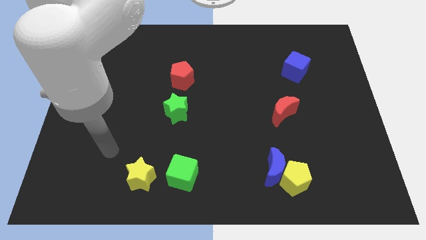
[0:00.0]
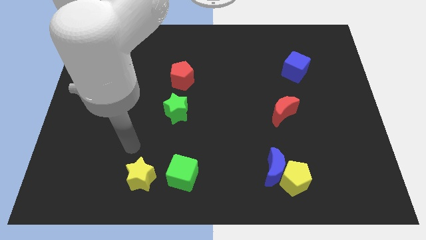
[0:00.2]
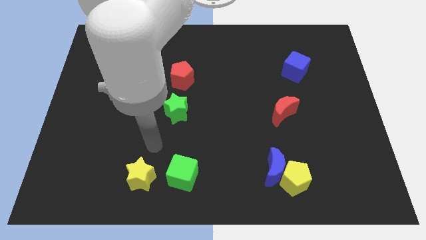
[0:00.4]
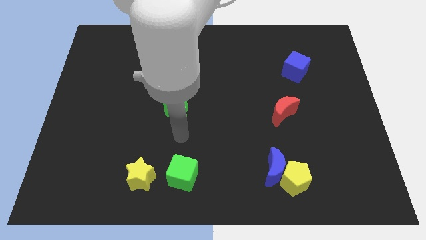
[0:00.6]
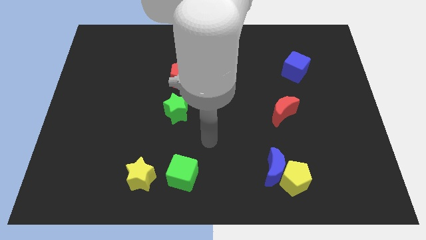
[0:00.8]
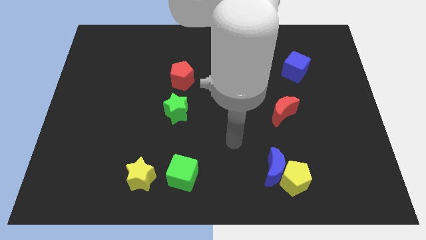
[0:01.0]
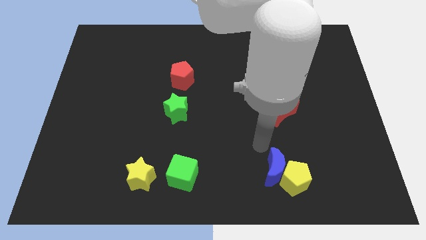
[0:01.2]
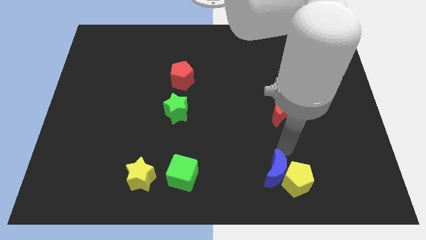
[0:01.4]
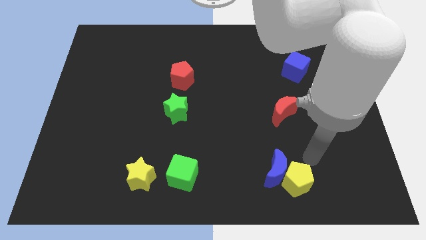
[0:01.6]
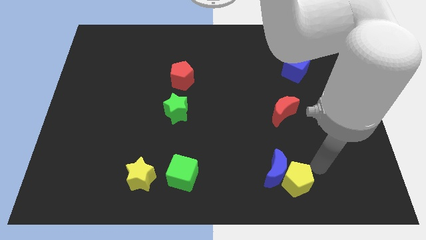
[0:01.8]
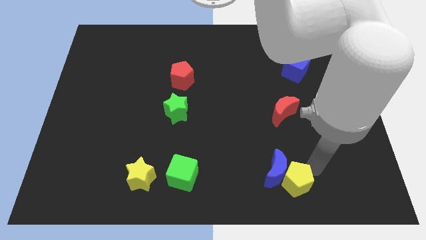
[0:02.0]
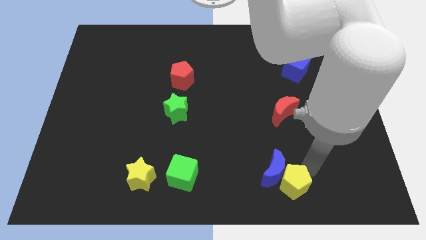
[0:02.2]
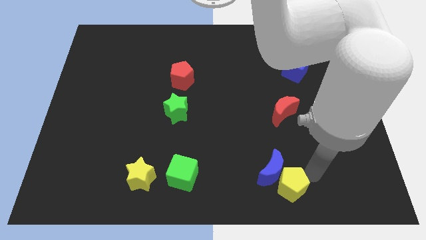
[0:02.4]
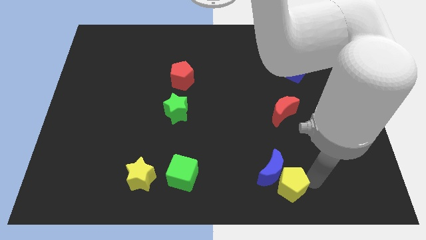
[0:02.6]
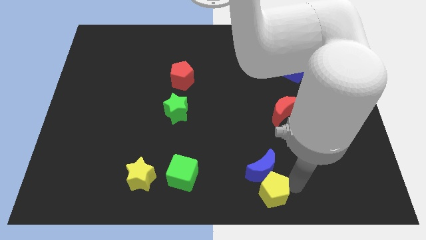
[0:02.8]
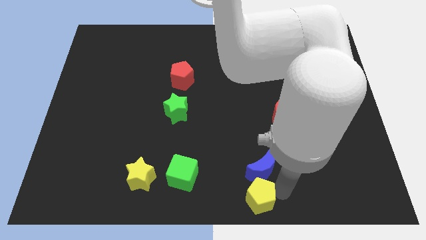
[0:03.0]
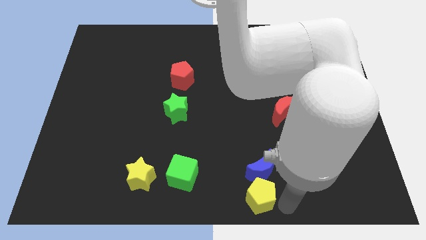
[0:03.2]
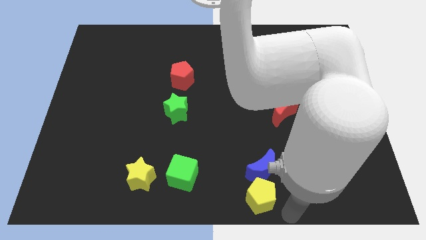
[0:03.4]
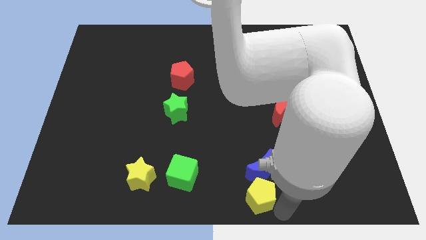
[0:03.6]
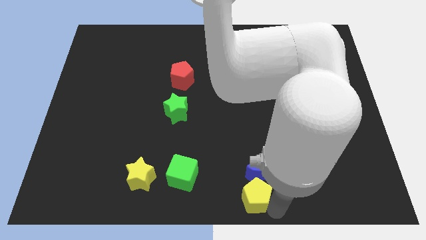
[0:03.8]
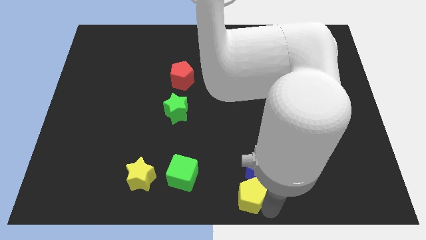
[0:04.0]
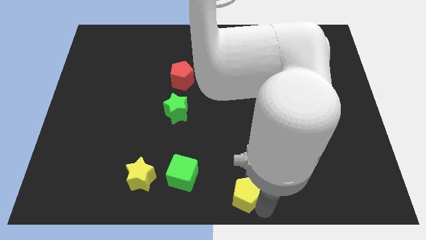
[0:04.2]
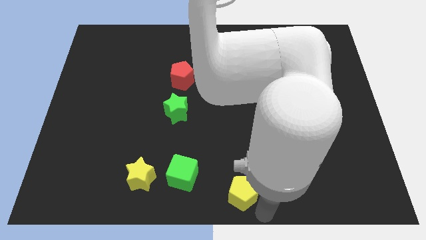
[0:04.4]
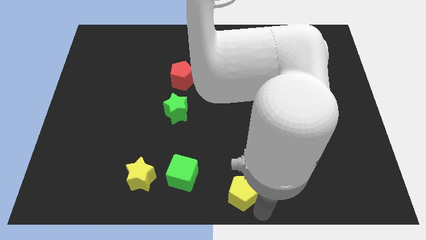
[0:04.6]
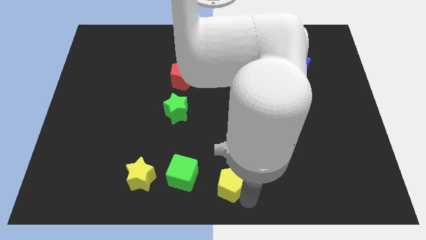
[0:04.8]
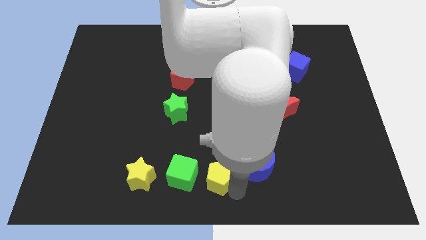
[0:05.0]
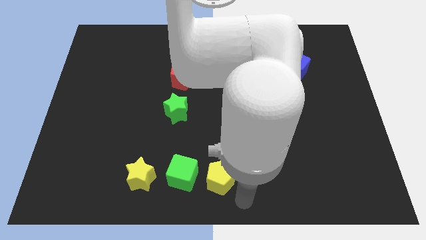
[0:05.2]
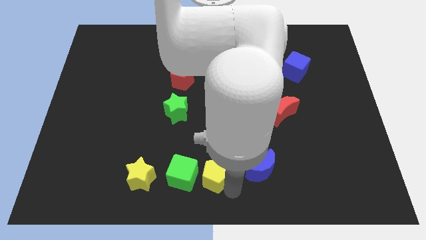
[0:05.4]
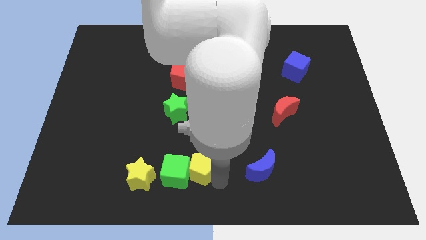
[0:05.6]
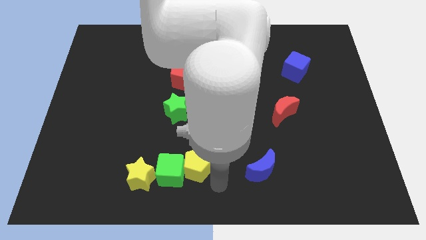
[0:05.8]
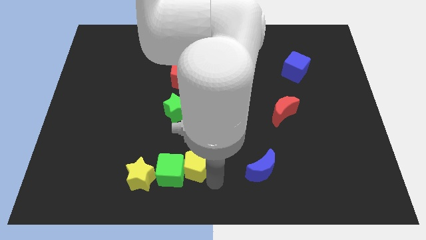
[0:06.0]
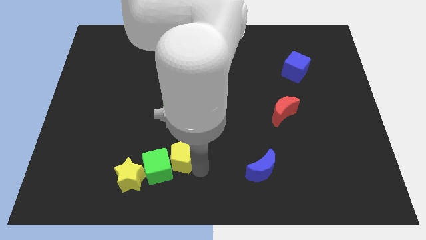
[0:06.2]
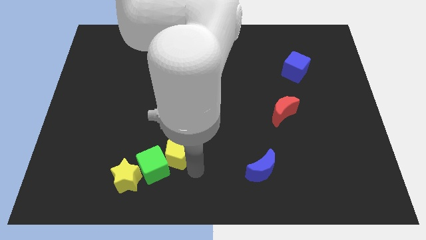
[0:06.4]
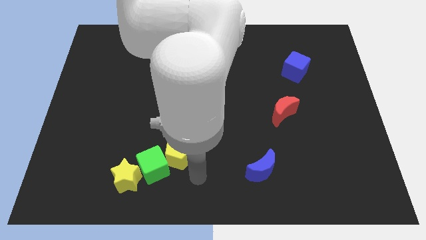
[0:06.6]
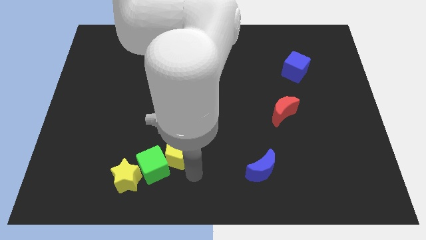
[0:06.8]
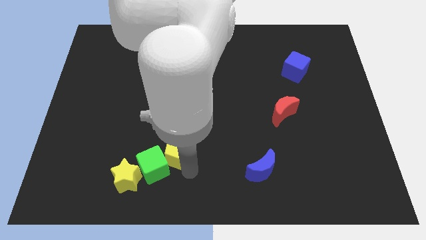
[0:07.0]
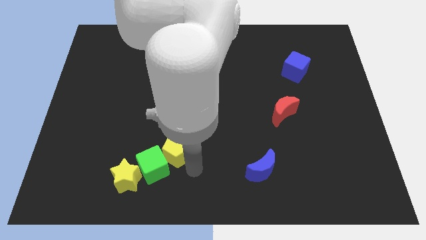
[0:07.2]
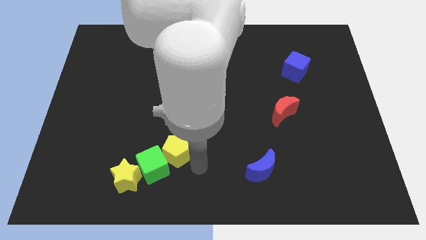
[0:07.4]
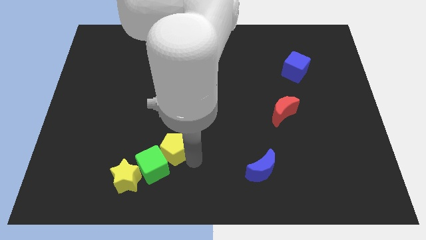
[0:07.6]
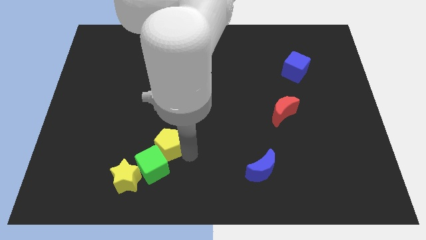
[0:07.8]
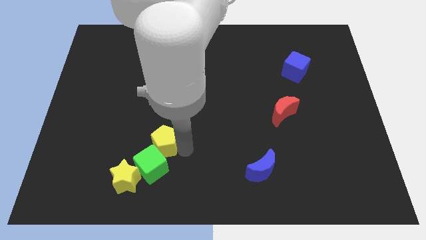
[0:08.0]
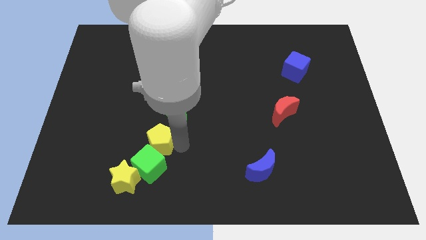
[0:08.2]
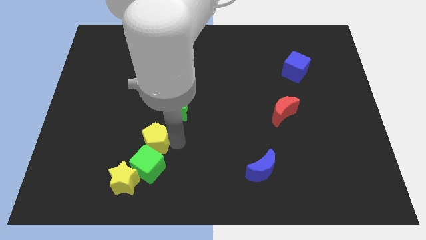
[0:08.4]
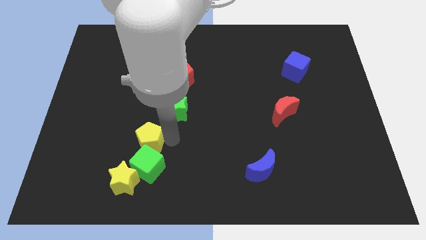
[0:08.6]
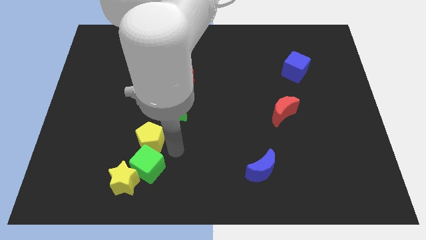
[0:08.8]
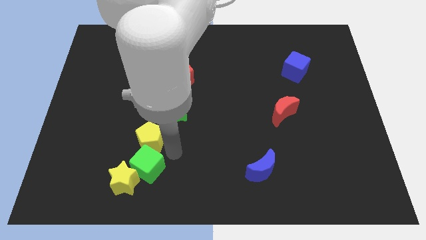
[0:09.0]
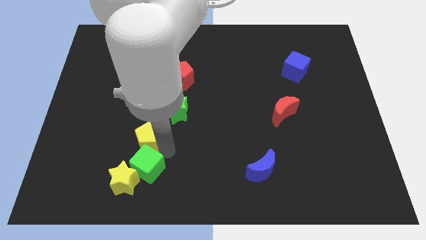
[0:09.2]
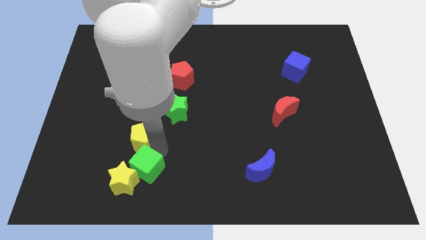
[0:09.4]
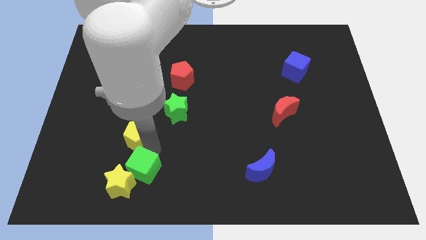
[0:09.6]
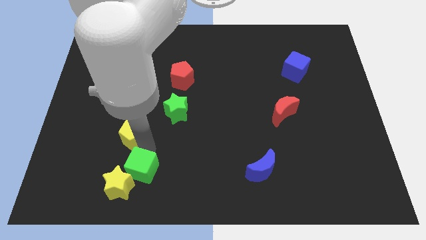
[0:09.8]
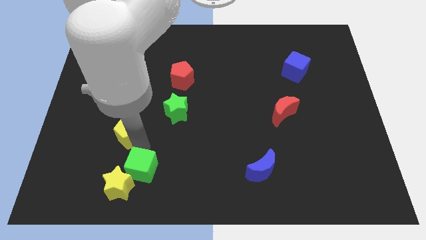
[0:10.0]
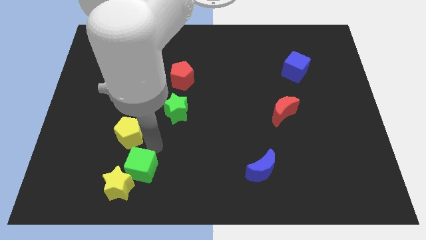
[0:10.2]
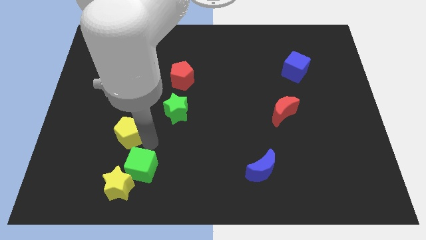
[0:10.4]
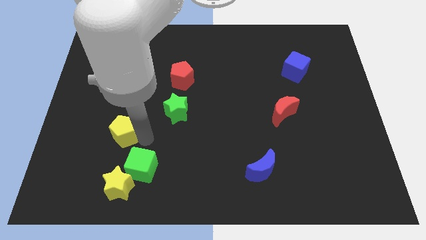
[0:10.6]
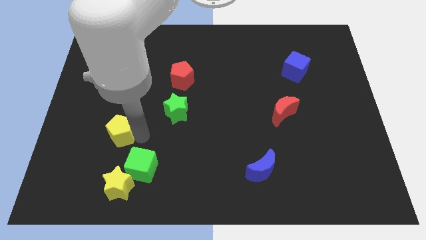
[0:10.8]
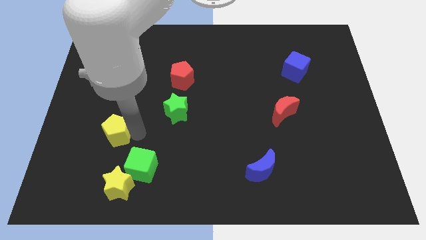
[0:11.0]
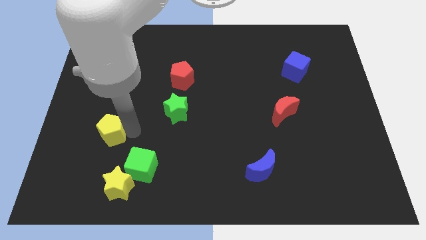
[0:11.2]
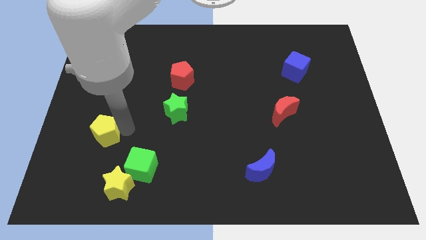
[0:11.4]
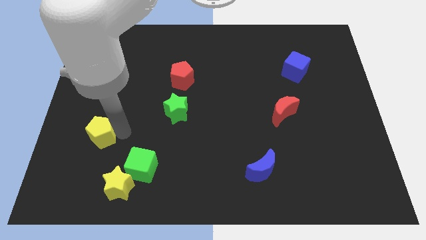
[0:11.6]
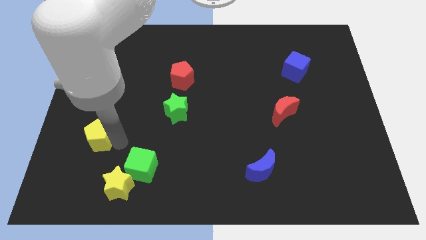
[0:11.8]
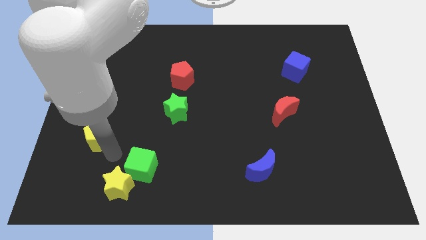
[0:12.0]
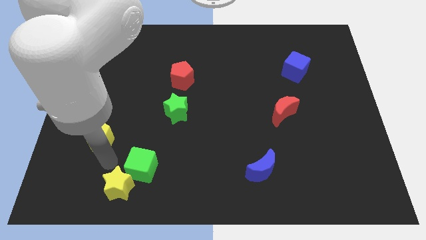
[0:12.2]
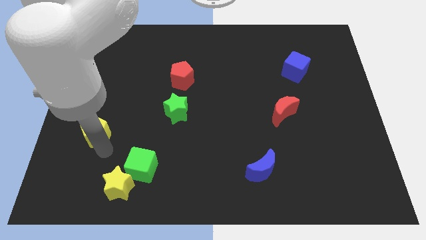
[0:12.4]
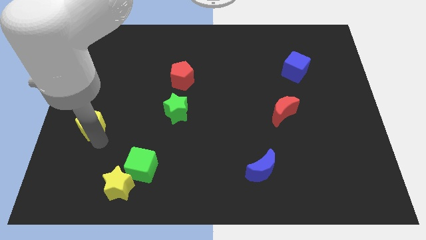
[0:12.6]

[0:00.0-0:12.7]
move the yellow pentagon to the left side
